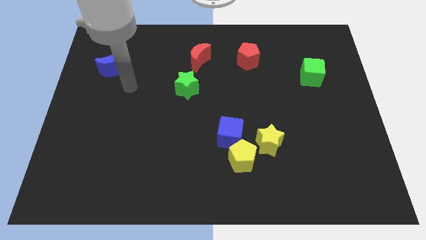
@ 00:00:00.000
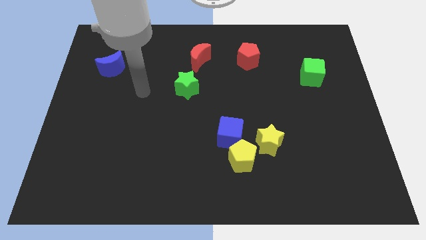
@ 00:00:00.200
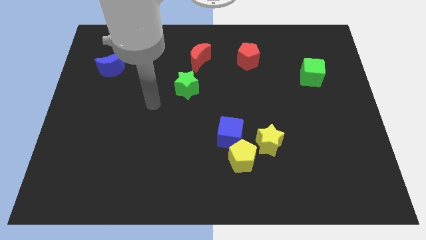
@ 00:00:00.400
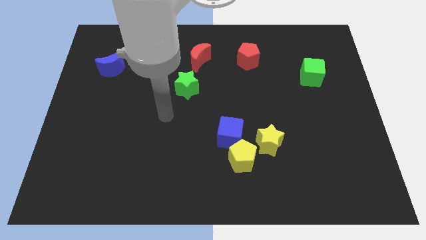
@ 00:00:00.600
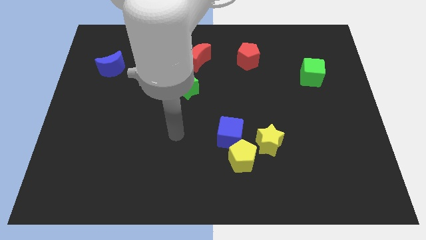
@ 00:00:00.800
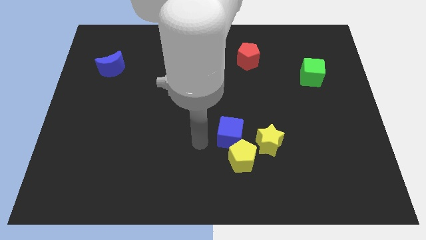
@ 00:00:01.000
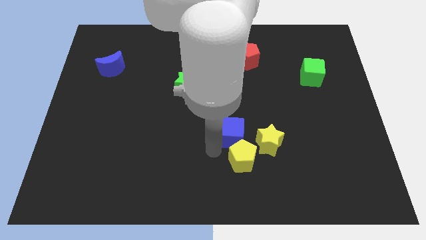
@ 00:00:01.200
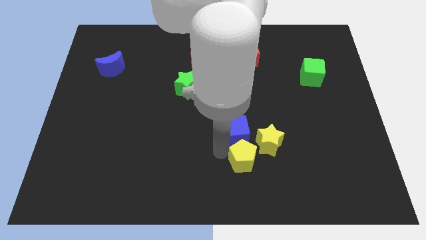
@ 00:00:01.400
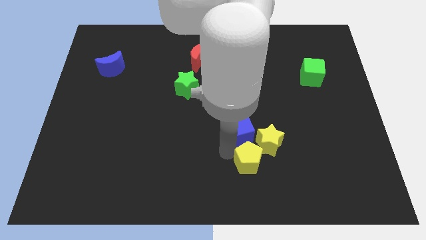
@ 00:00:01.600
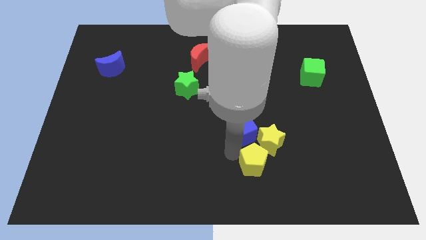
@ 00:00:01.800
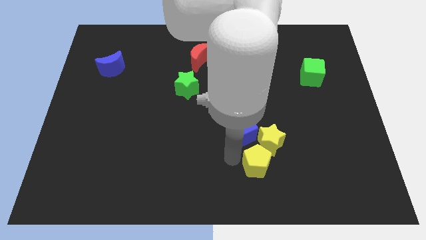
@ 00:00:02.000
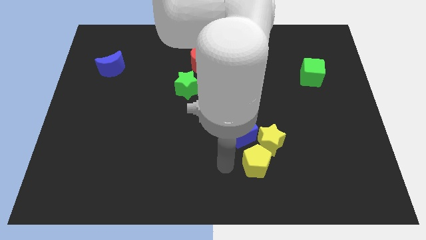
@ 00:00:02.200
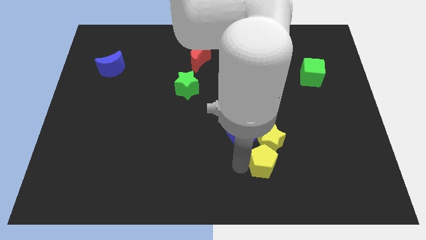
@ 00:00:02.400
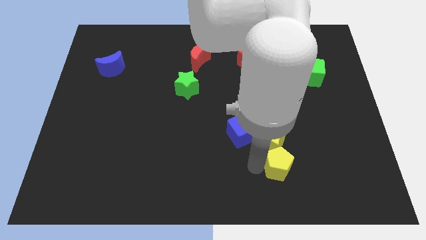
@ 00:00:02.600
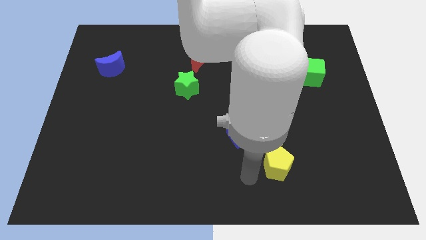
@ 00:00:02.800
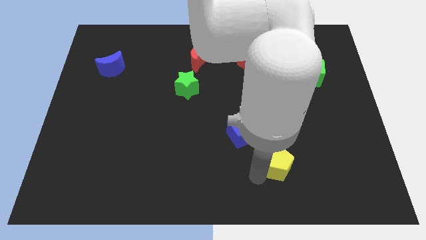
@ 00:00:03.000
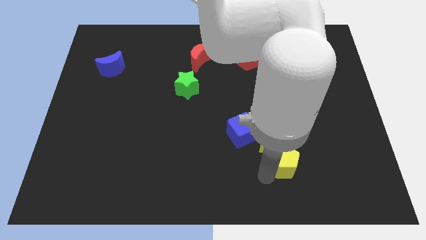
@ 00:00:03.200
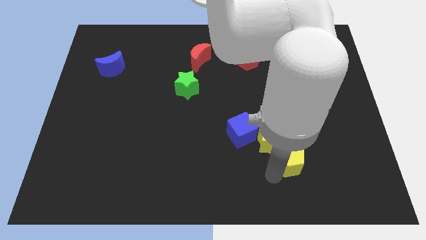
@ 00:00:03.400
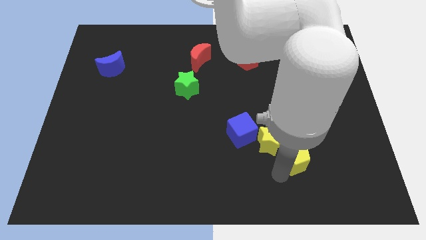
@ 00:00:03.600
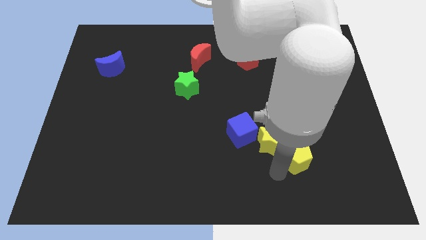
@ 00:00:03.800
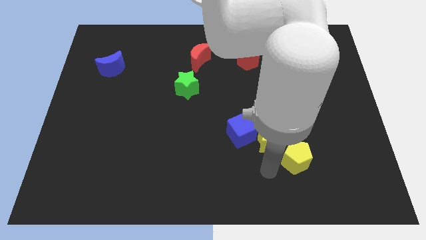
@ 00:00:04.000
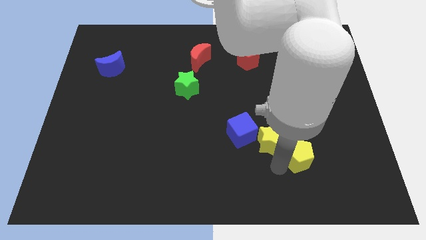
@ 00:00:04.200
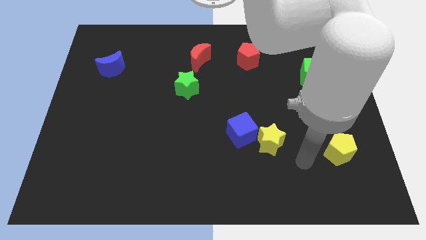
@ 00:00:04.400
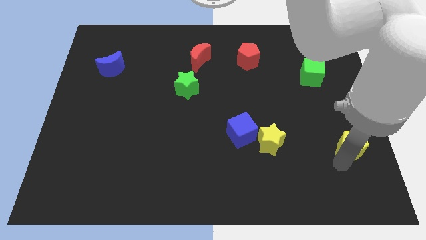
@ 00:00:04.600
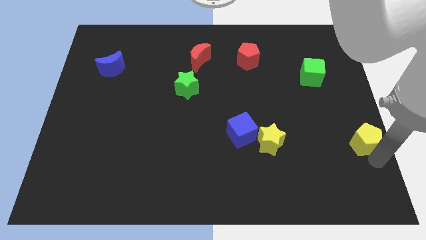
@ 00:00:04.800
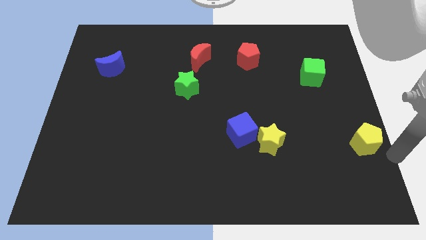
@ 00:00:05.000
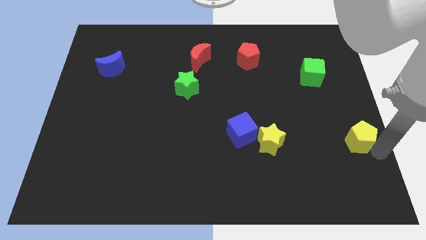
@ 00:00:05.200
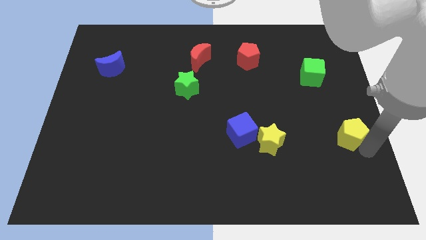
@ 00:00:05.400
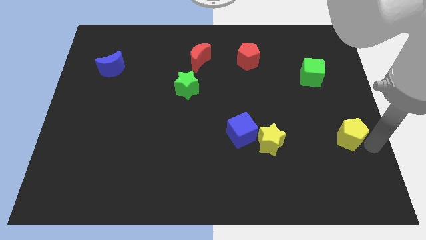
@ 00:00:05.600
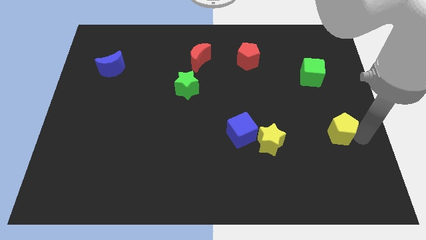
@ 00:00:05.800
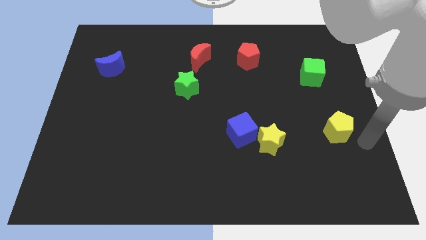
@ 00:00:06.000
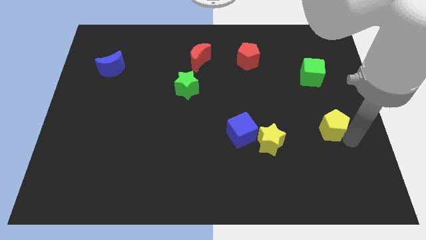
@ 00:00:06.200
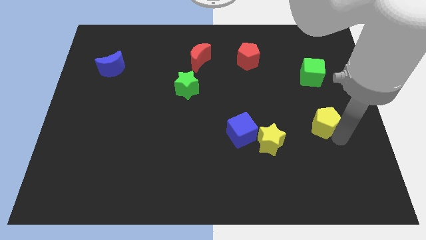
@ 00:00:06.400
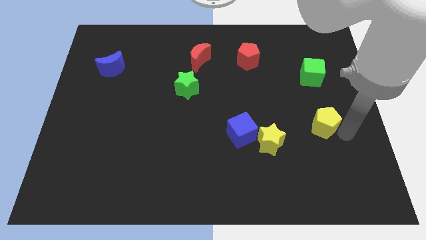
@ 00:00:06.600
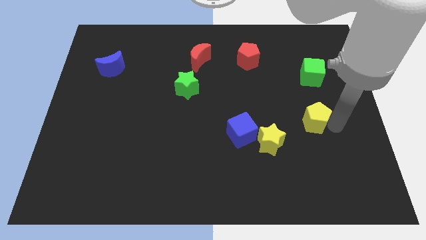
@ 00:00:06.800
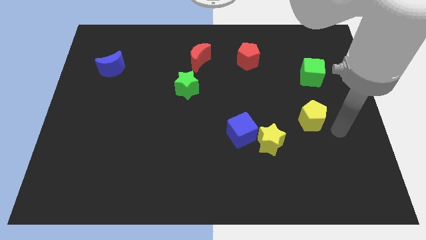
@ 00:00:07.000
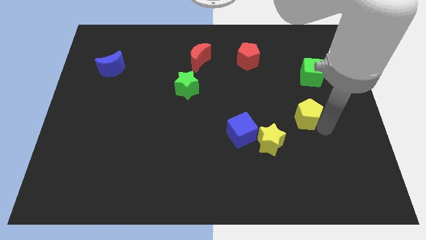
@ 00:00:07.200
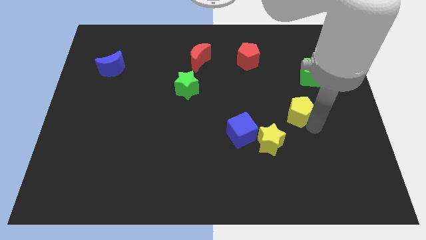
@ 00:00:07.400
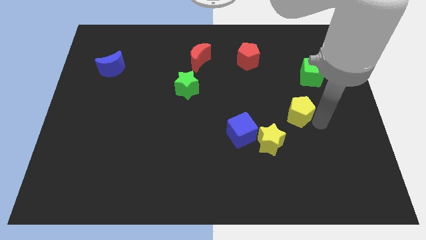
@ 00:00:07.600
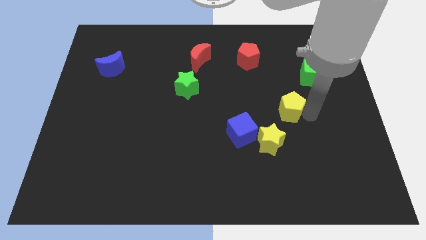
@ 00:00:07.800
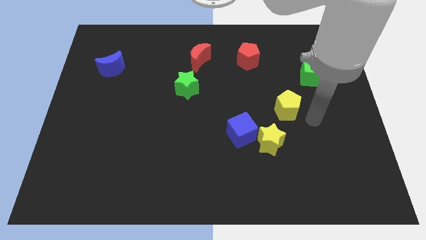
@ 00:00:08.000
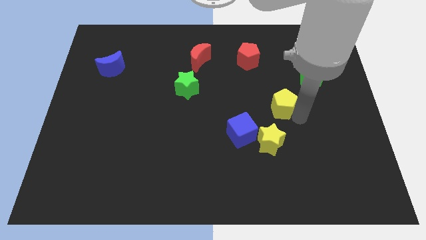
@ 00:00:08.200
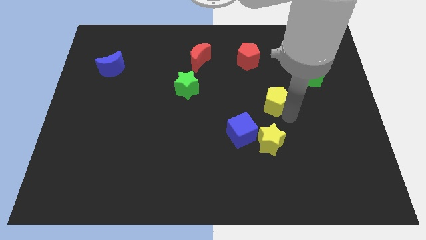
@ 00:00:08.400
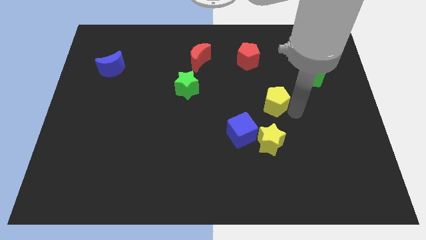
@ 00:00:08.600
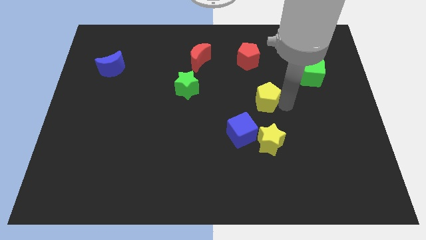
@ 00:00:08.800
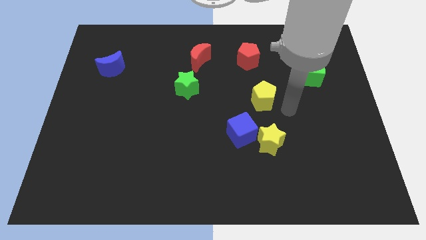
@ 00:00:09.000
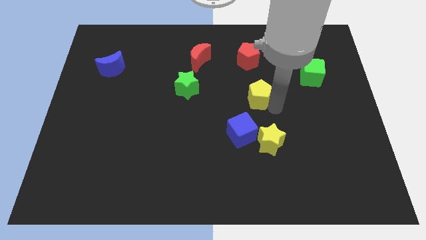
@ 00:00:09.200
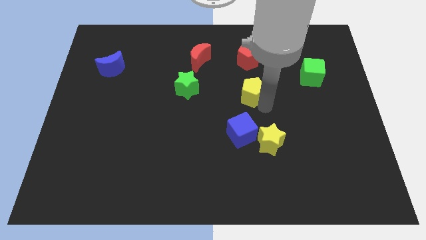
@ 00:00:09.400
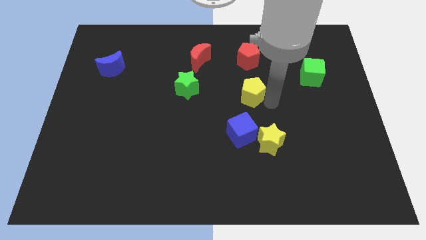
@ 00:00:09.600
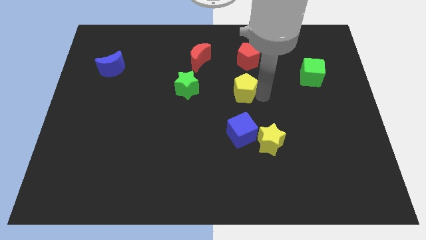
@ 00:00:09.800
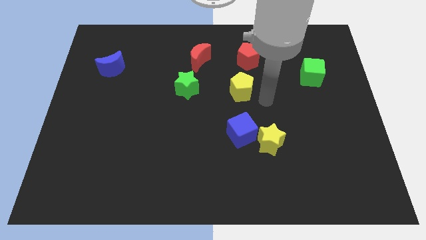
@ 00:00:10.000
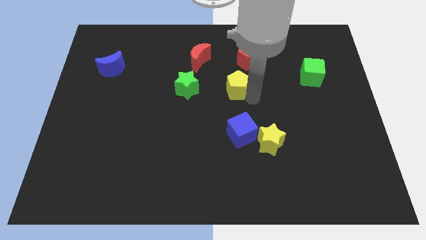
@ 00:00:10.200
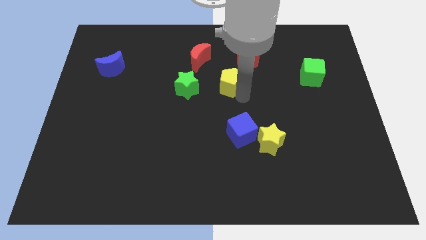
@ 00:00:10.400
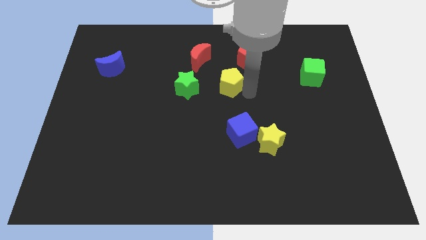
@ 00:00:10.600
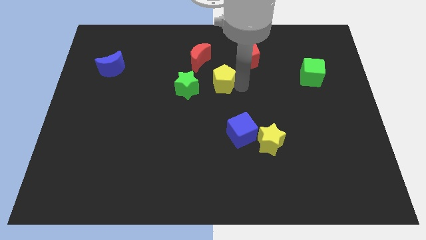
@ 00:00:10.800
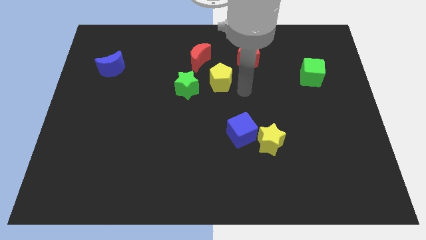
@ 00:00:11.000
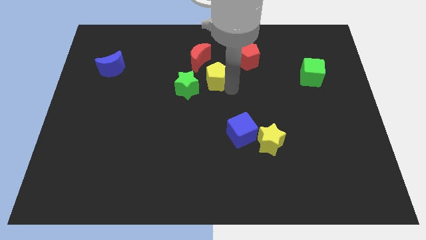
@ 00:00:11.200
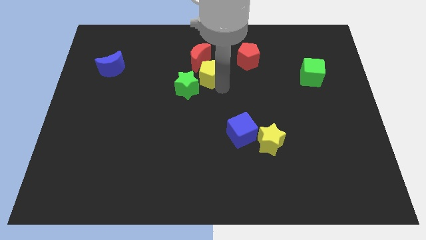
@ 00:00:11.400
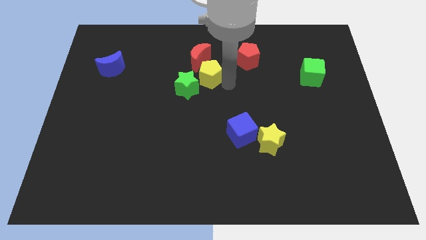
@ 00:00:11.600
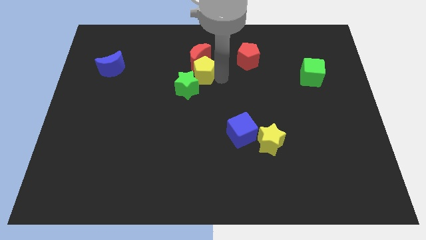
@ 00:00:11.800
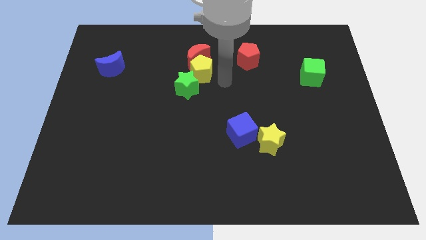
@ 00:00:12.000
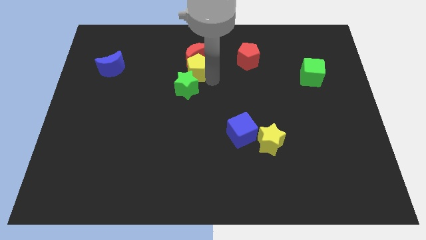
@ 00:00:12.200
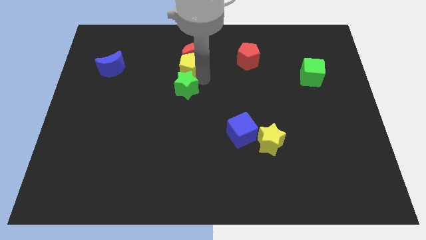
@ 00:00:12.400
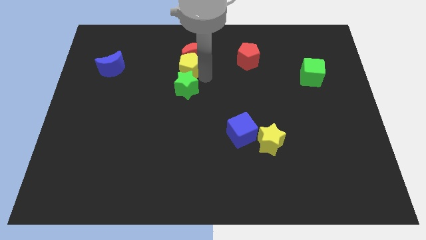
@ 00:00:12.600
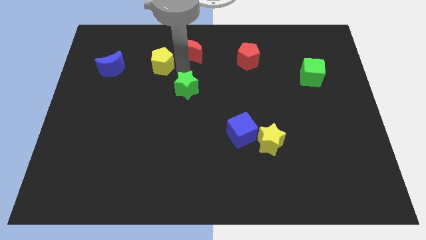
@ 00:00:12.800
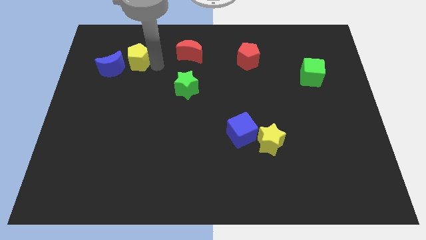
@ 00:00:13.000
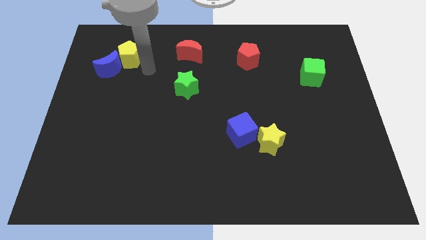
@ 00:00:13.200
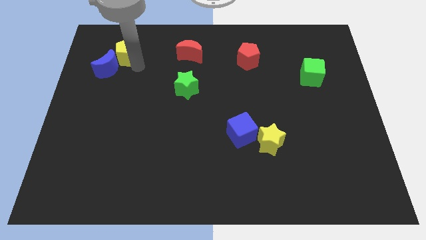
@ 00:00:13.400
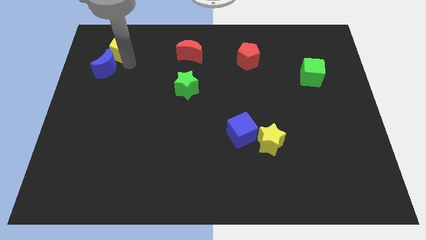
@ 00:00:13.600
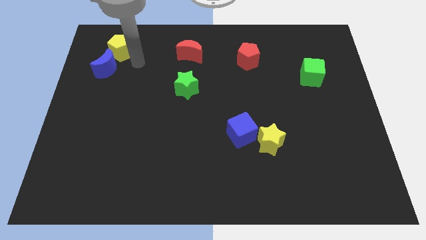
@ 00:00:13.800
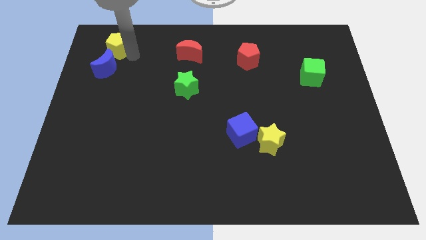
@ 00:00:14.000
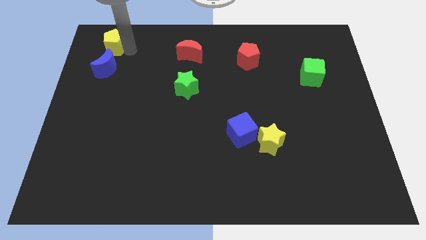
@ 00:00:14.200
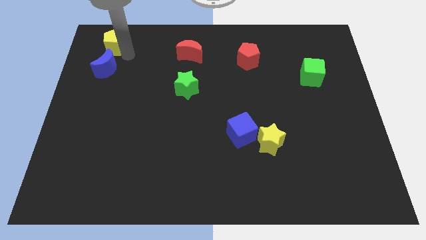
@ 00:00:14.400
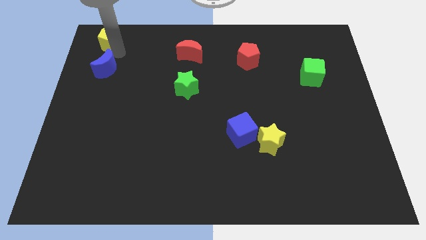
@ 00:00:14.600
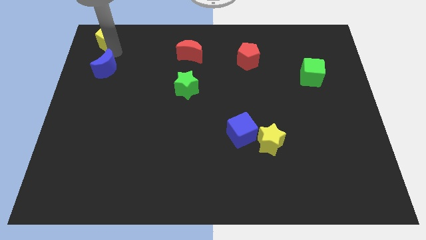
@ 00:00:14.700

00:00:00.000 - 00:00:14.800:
slide the yellow pentagon to the top left
